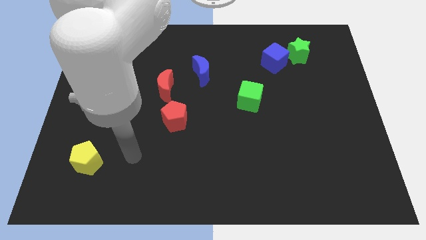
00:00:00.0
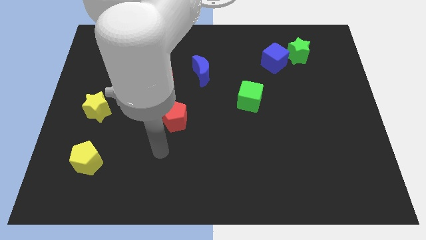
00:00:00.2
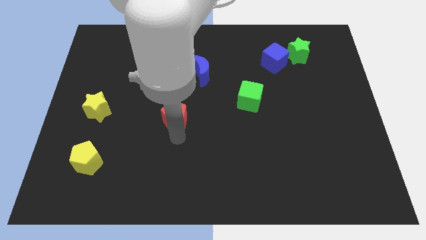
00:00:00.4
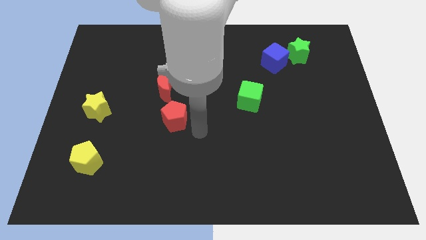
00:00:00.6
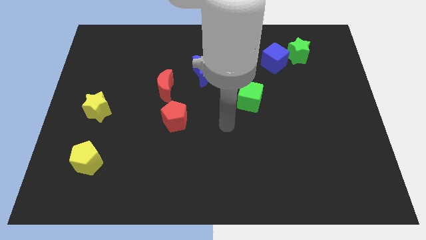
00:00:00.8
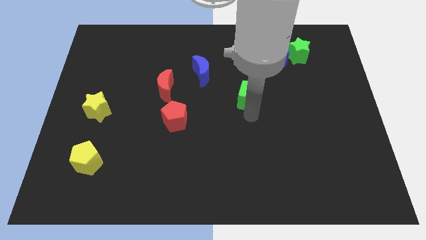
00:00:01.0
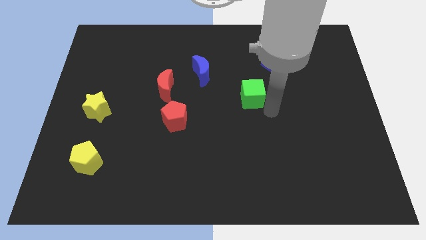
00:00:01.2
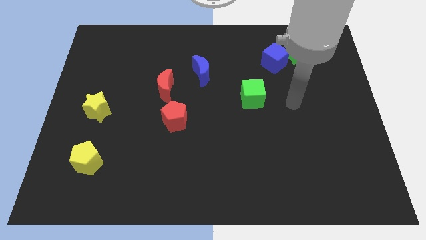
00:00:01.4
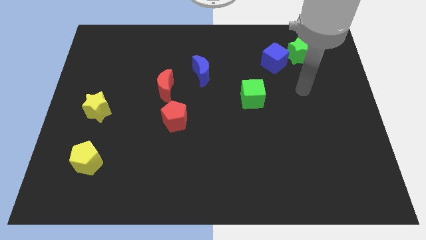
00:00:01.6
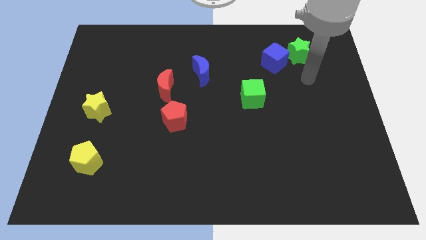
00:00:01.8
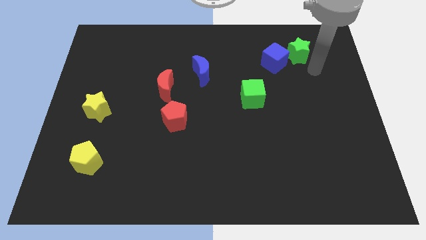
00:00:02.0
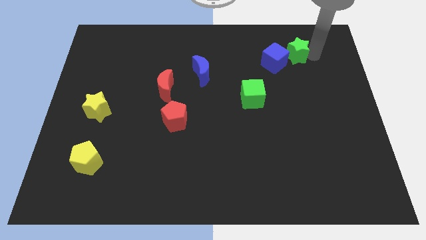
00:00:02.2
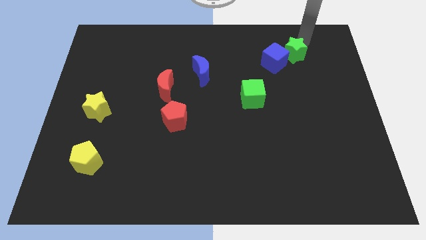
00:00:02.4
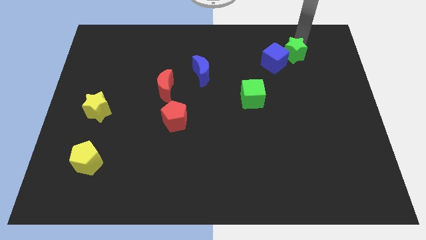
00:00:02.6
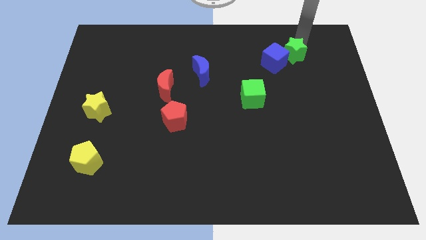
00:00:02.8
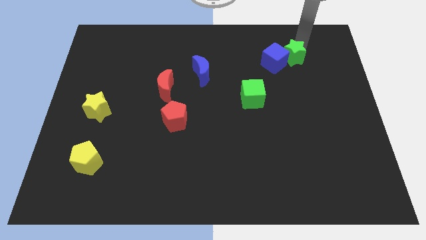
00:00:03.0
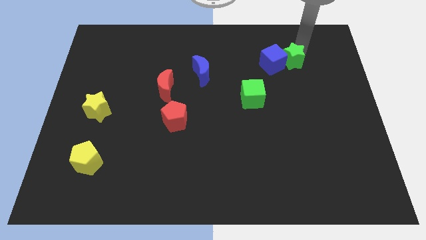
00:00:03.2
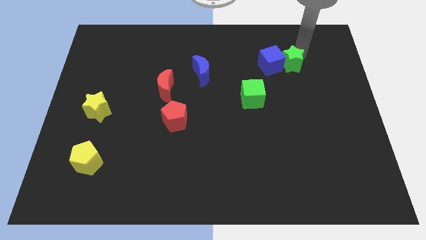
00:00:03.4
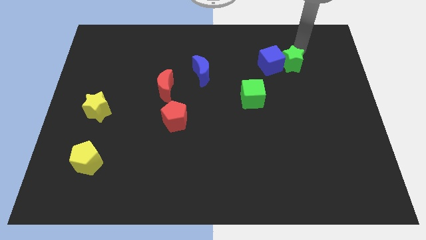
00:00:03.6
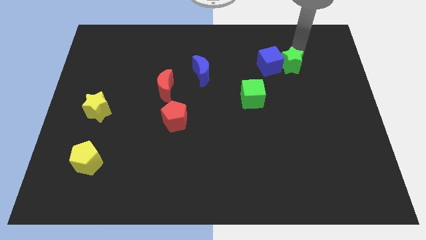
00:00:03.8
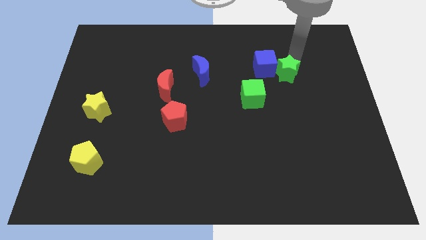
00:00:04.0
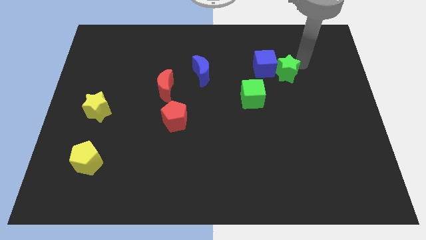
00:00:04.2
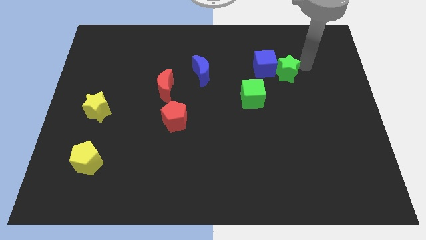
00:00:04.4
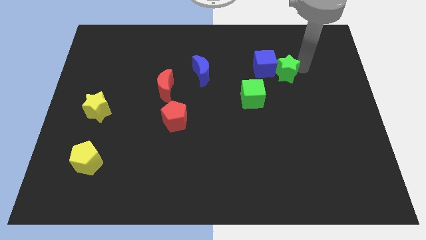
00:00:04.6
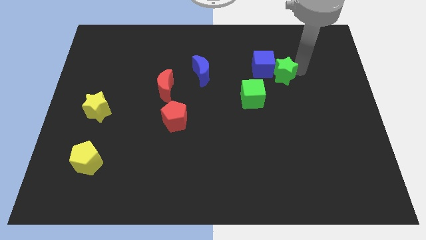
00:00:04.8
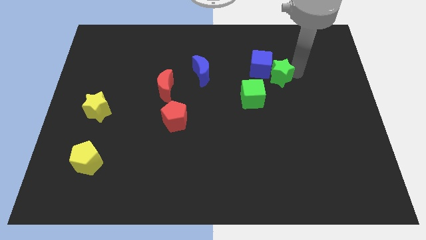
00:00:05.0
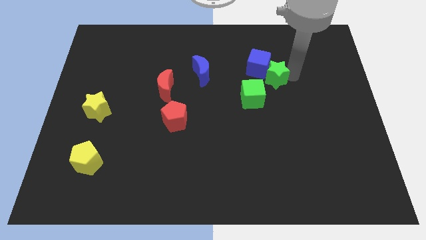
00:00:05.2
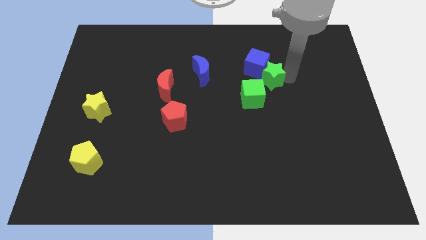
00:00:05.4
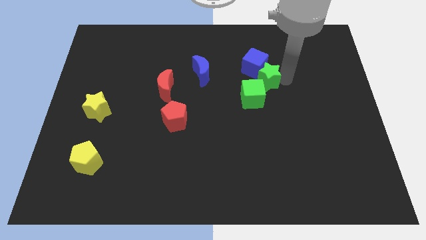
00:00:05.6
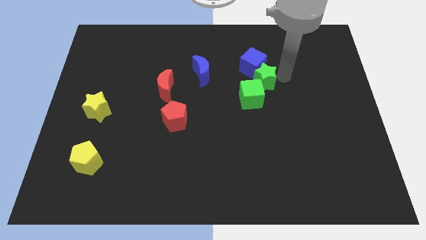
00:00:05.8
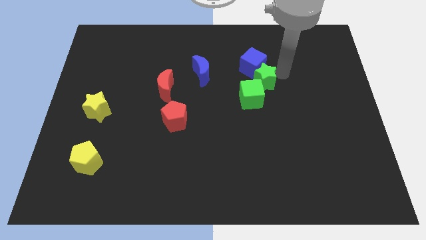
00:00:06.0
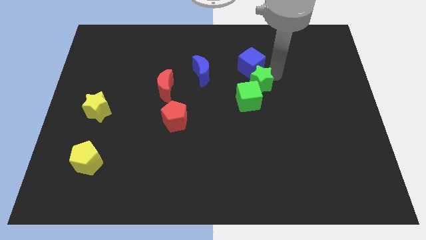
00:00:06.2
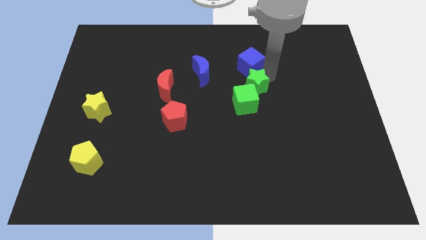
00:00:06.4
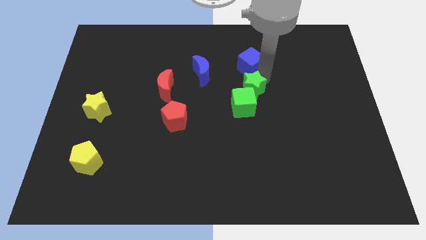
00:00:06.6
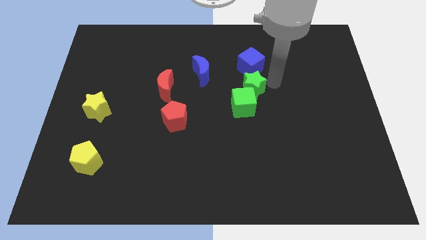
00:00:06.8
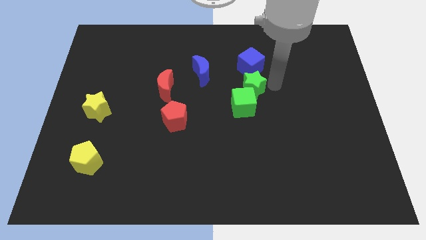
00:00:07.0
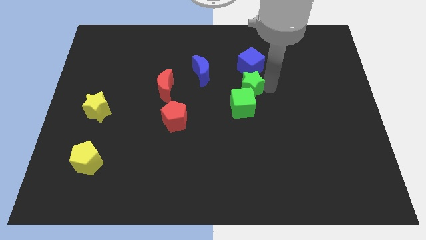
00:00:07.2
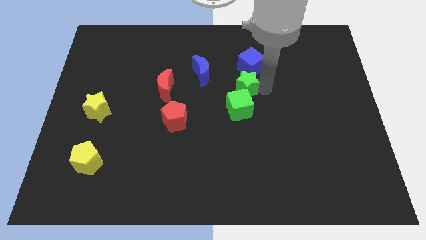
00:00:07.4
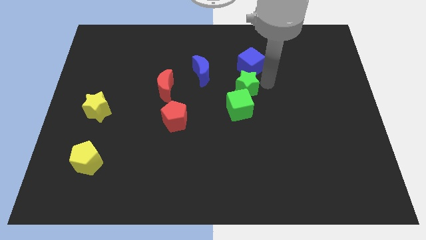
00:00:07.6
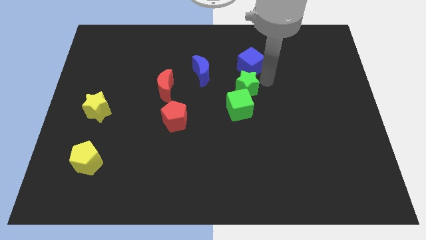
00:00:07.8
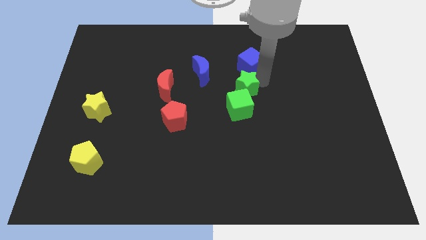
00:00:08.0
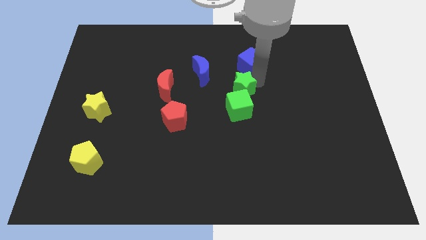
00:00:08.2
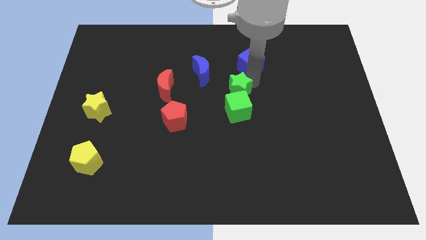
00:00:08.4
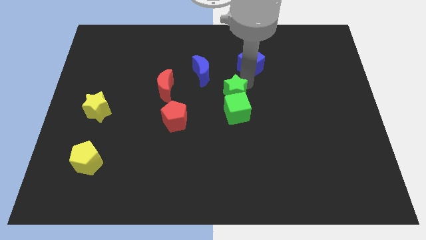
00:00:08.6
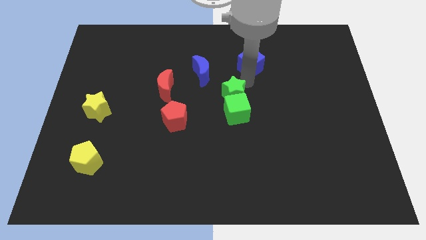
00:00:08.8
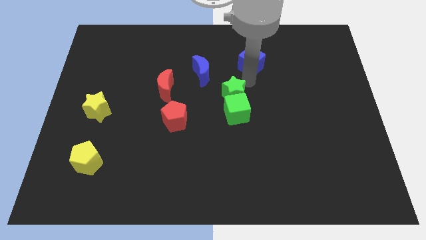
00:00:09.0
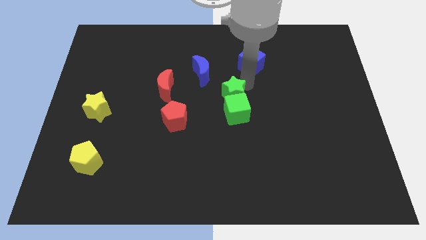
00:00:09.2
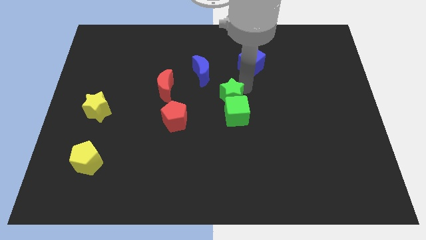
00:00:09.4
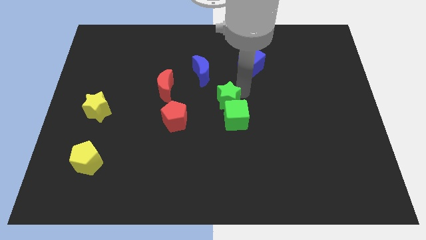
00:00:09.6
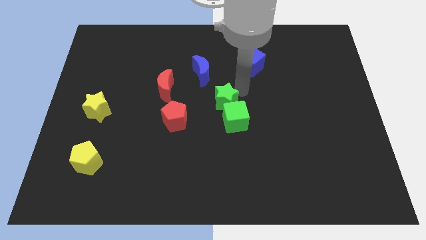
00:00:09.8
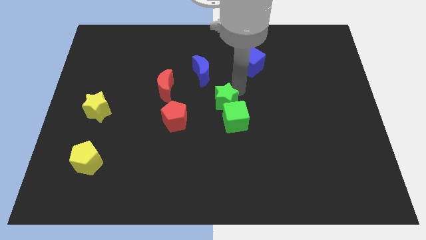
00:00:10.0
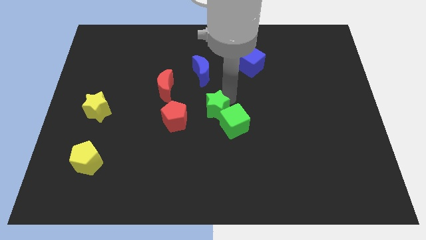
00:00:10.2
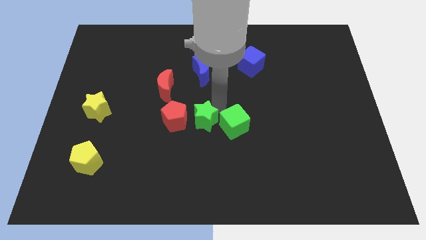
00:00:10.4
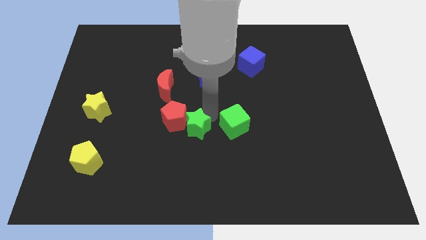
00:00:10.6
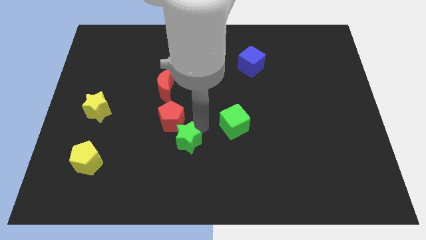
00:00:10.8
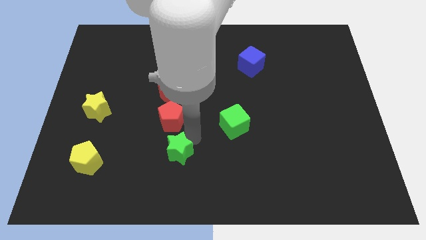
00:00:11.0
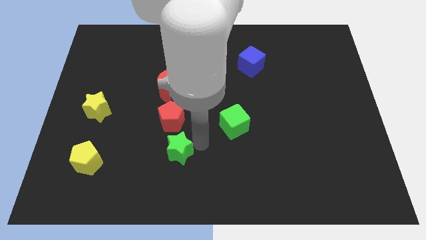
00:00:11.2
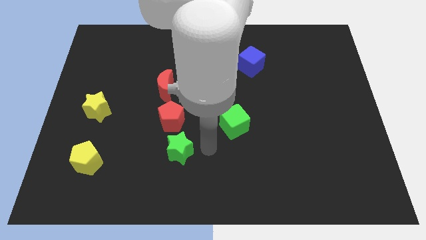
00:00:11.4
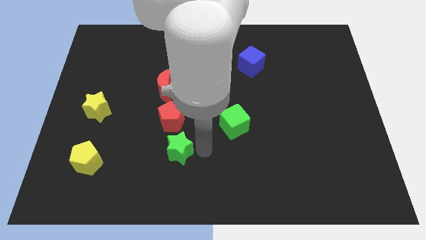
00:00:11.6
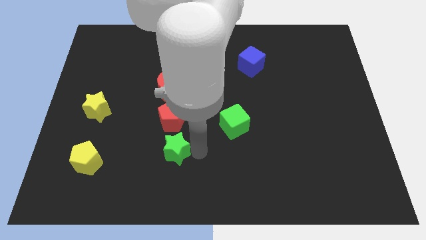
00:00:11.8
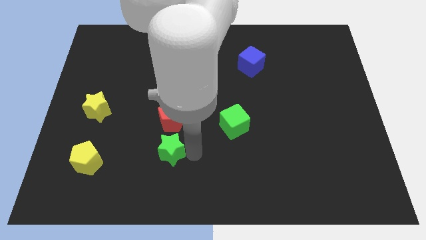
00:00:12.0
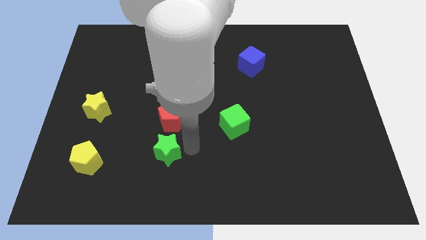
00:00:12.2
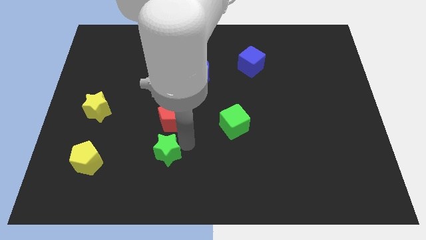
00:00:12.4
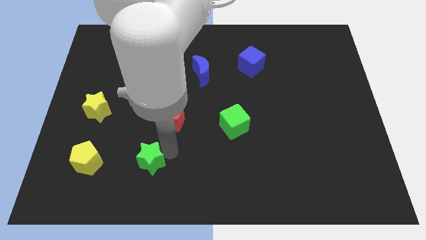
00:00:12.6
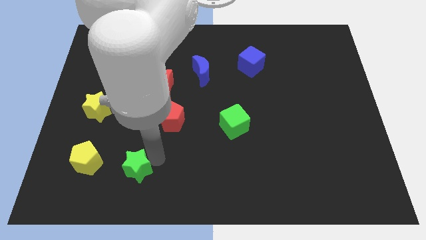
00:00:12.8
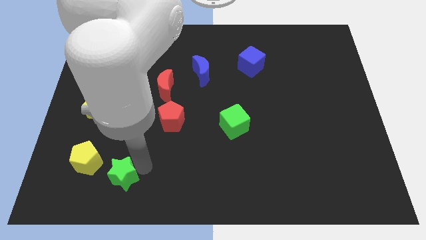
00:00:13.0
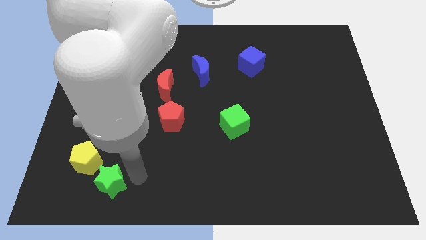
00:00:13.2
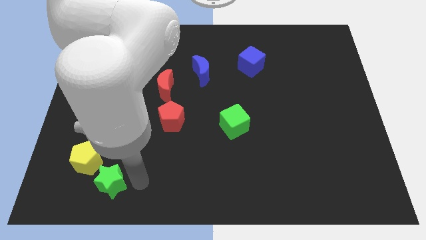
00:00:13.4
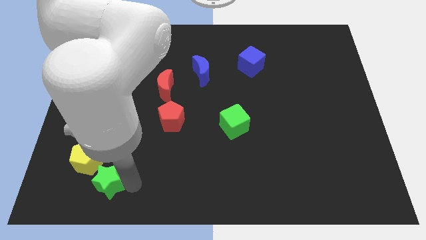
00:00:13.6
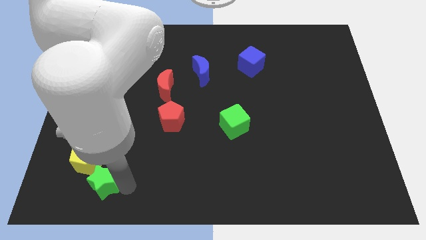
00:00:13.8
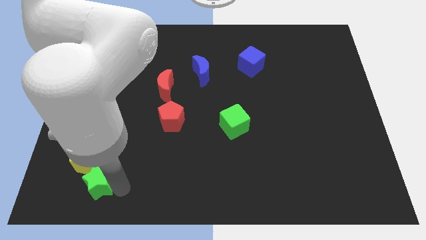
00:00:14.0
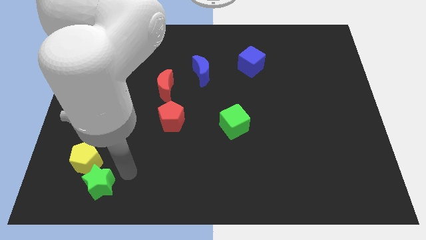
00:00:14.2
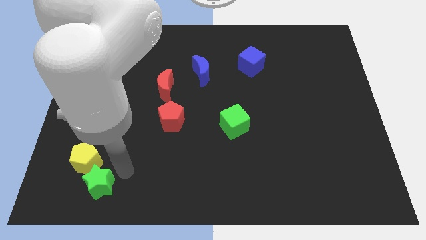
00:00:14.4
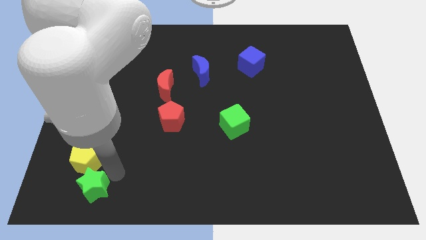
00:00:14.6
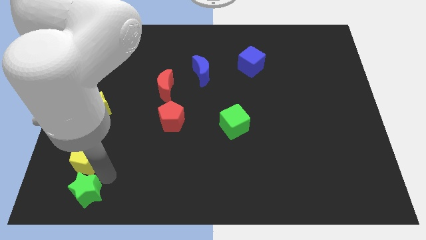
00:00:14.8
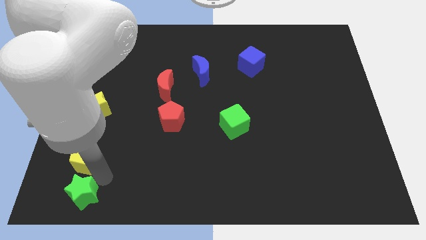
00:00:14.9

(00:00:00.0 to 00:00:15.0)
move the green star to the bottom left corner
